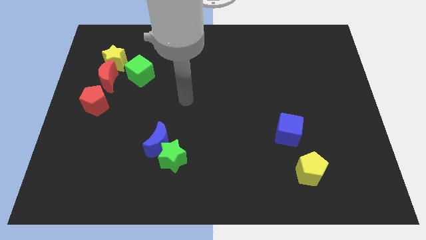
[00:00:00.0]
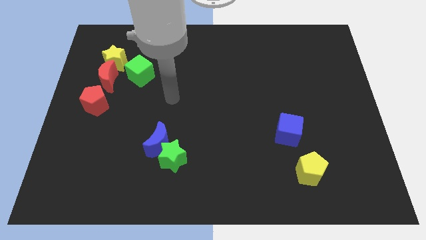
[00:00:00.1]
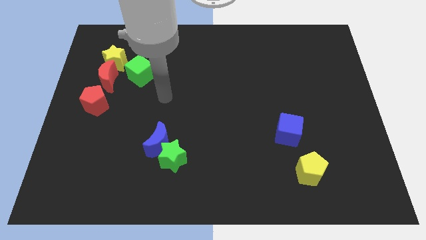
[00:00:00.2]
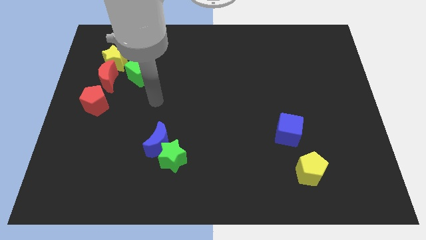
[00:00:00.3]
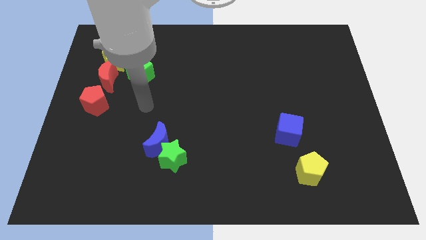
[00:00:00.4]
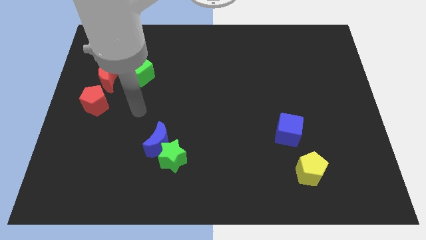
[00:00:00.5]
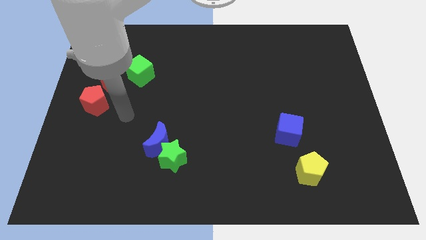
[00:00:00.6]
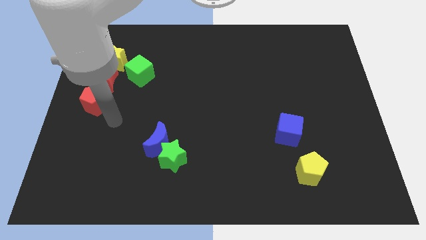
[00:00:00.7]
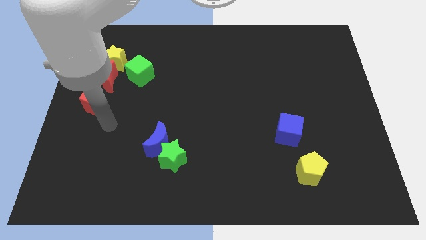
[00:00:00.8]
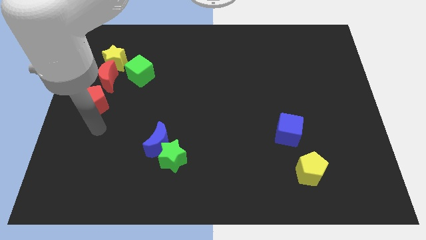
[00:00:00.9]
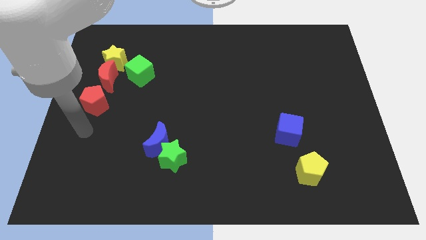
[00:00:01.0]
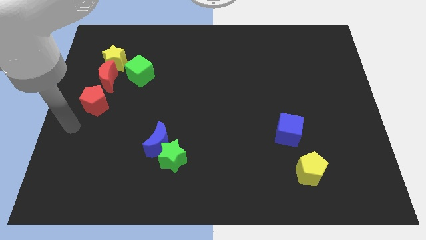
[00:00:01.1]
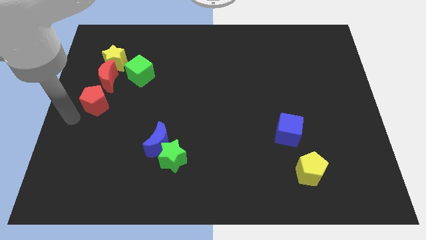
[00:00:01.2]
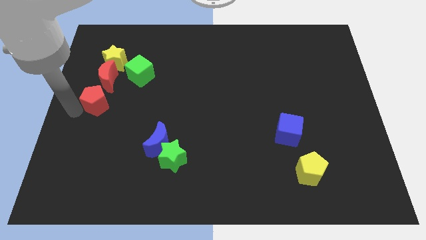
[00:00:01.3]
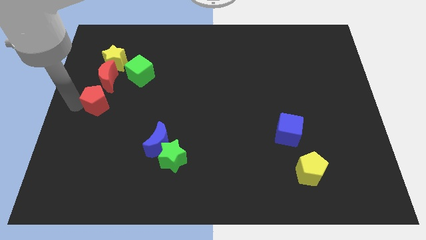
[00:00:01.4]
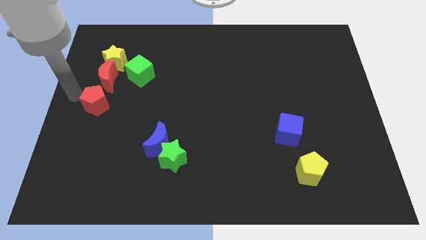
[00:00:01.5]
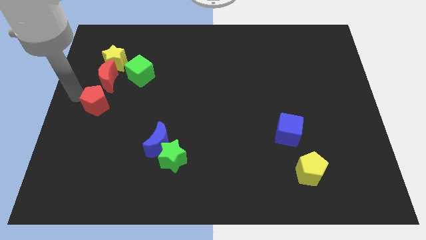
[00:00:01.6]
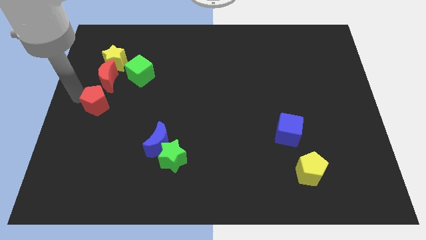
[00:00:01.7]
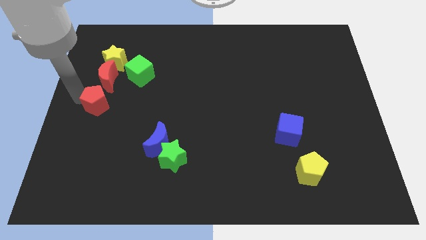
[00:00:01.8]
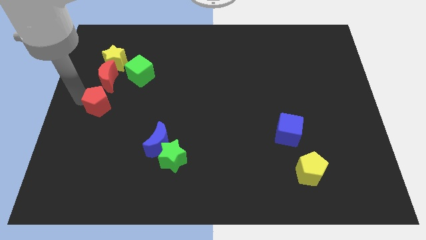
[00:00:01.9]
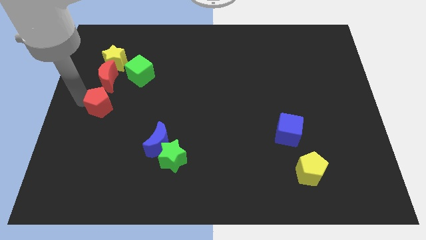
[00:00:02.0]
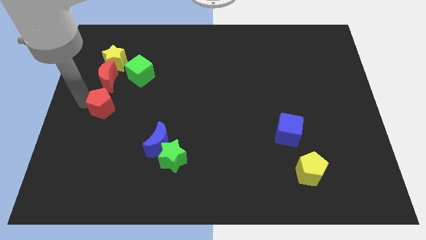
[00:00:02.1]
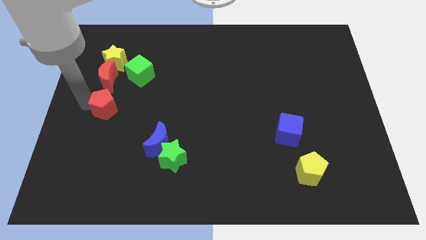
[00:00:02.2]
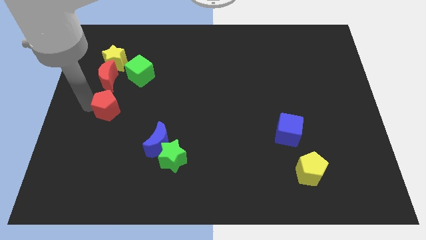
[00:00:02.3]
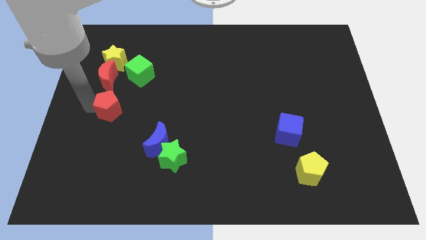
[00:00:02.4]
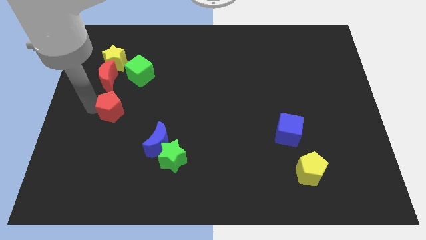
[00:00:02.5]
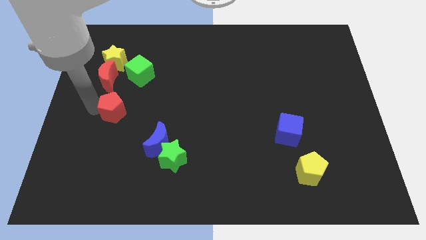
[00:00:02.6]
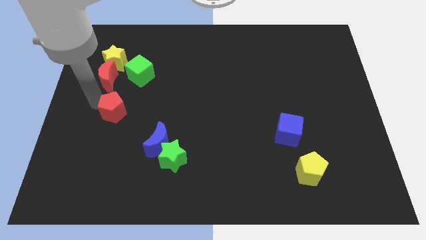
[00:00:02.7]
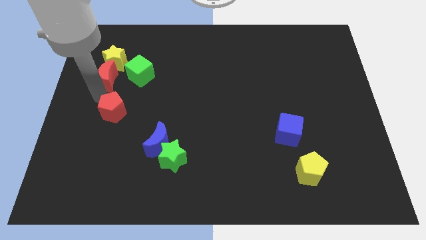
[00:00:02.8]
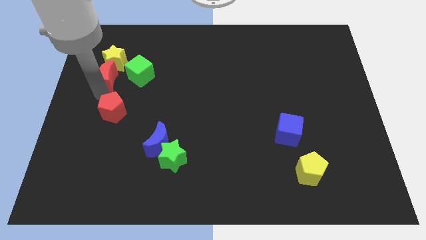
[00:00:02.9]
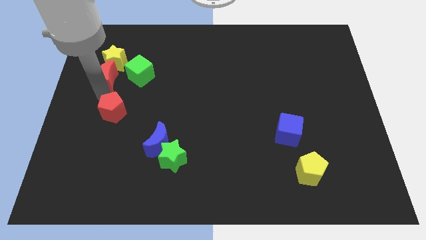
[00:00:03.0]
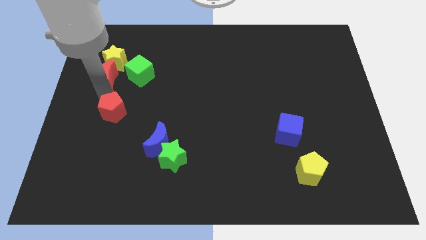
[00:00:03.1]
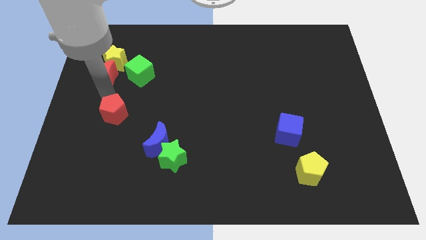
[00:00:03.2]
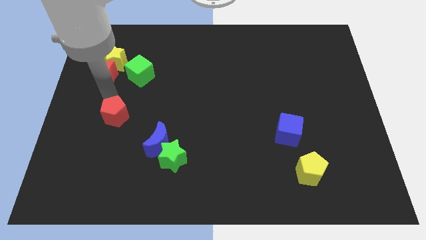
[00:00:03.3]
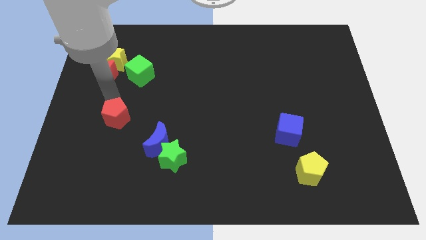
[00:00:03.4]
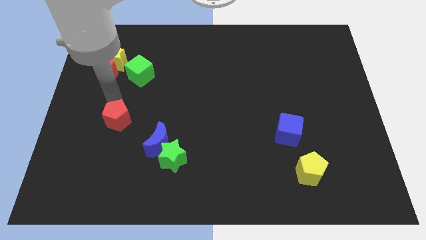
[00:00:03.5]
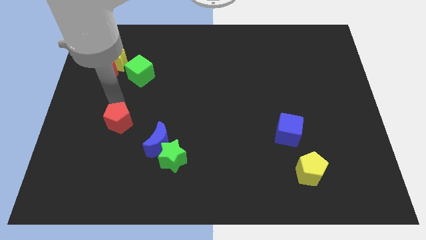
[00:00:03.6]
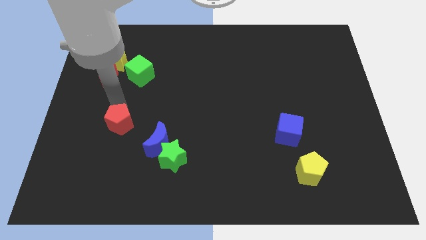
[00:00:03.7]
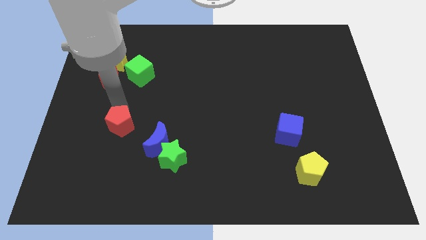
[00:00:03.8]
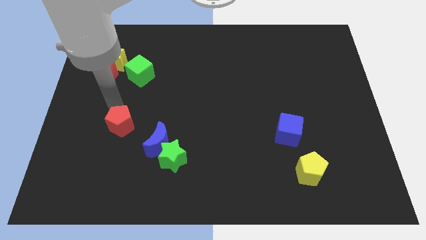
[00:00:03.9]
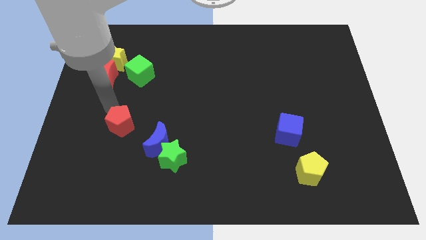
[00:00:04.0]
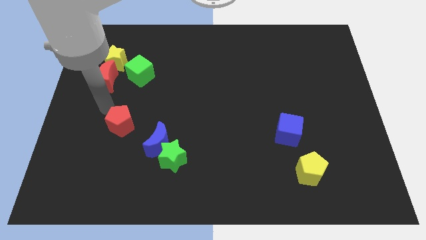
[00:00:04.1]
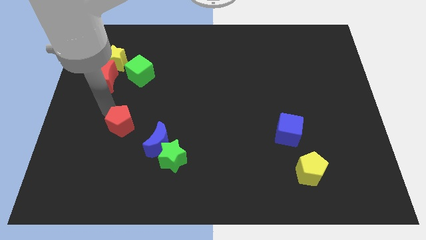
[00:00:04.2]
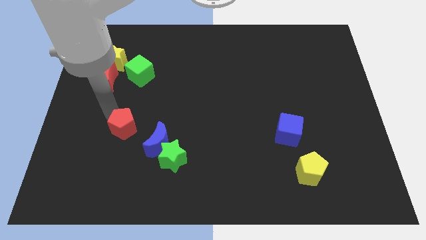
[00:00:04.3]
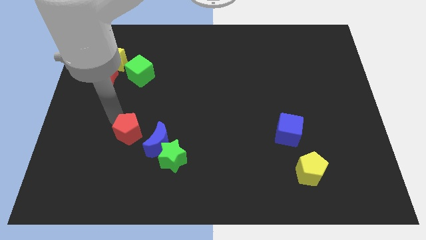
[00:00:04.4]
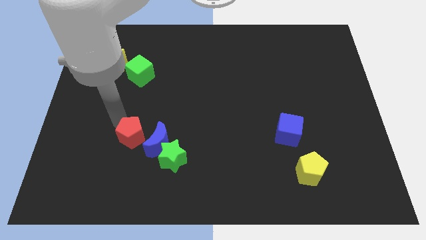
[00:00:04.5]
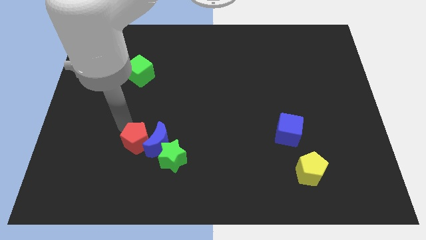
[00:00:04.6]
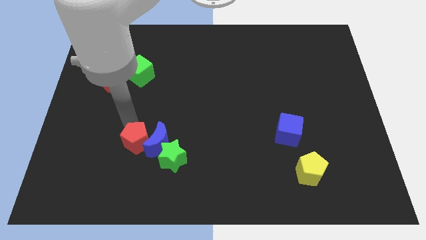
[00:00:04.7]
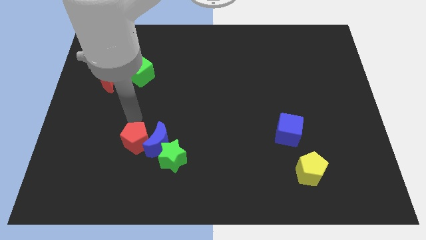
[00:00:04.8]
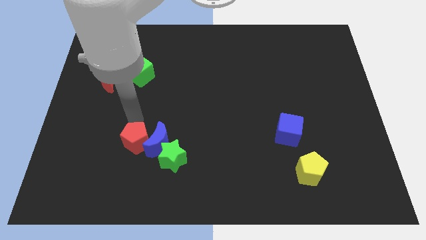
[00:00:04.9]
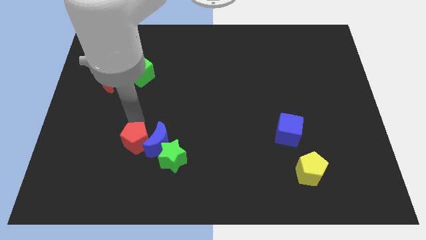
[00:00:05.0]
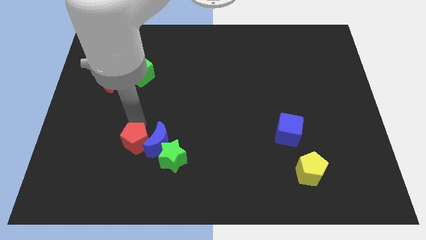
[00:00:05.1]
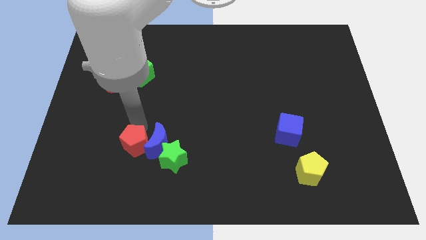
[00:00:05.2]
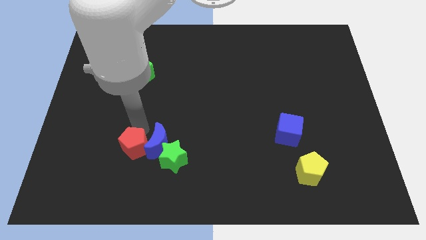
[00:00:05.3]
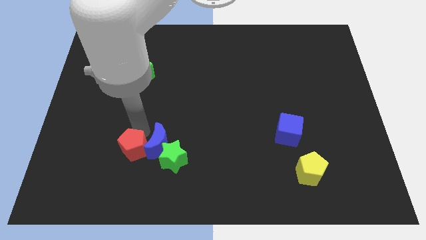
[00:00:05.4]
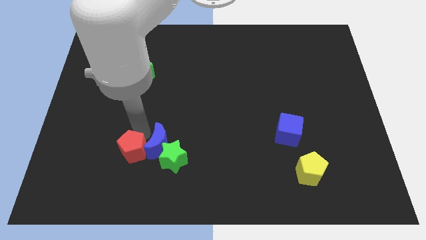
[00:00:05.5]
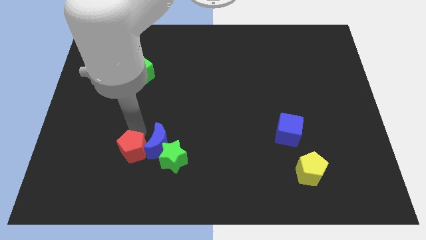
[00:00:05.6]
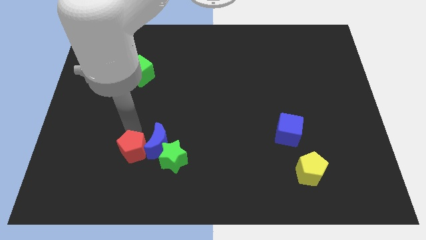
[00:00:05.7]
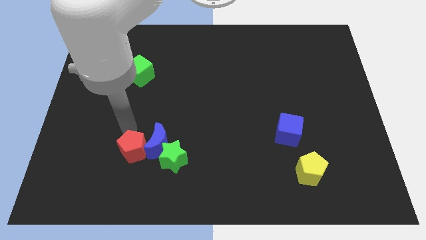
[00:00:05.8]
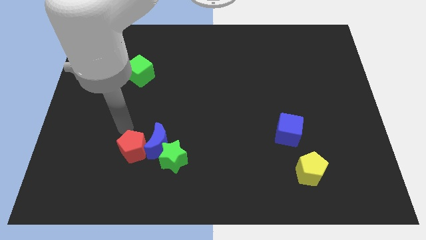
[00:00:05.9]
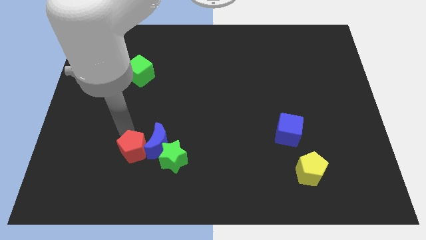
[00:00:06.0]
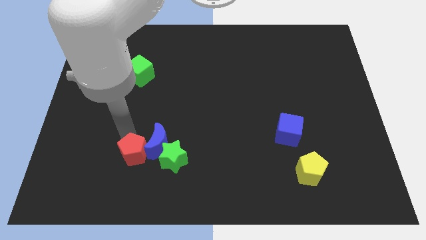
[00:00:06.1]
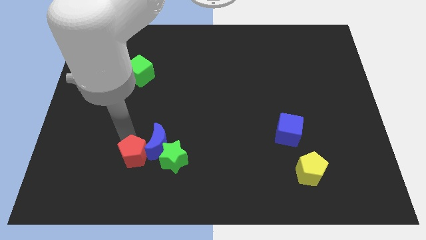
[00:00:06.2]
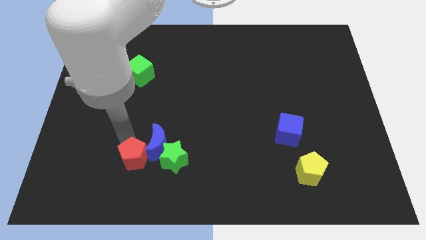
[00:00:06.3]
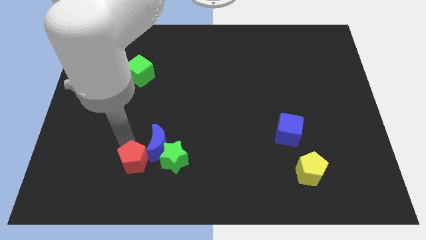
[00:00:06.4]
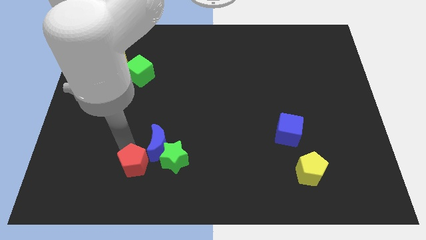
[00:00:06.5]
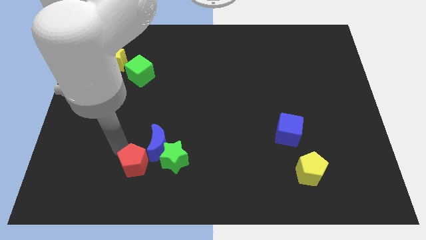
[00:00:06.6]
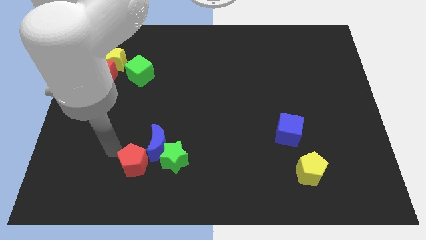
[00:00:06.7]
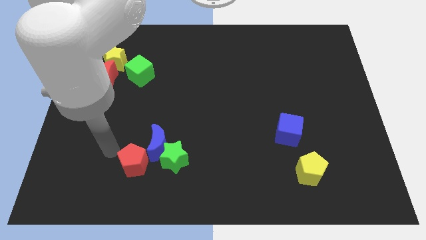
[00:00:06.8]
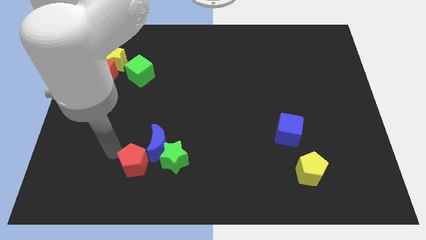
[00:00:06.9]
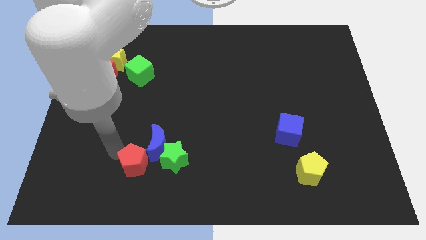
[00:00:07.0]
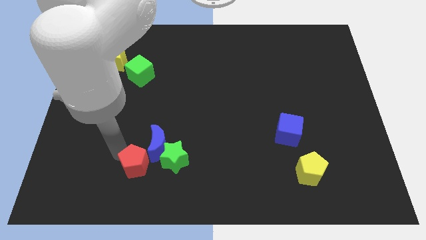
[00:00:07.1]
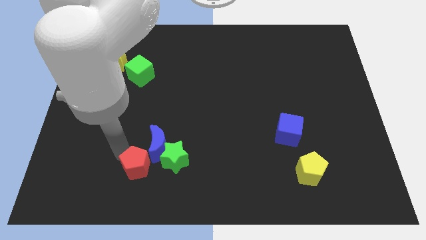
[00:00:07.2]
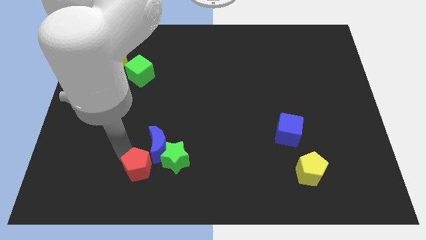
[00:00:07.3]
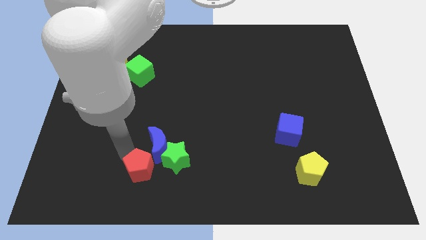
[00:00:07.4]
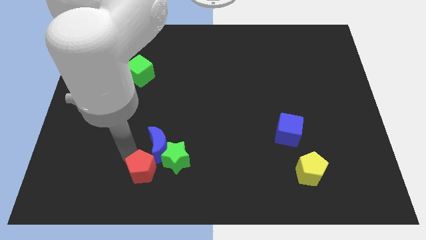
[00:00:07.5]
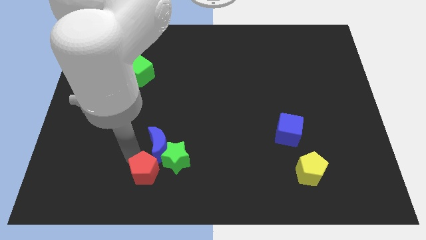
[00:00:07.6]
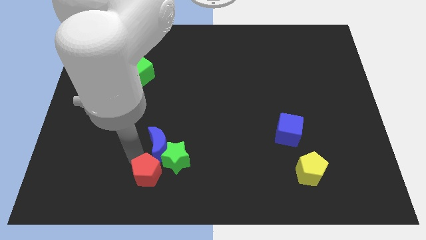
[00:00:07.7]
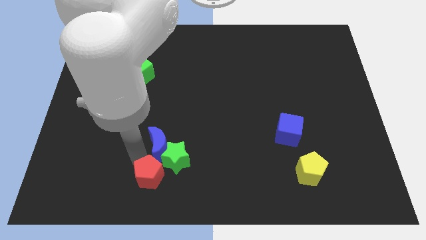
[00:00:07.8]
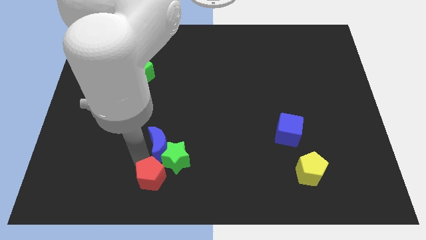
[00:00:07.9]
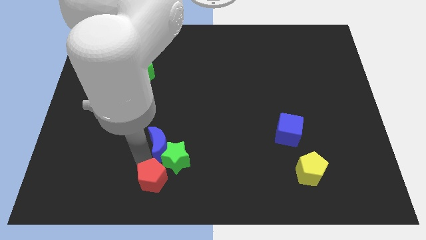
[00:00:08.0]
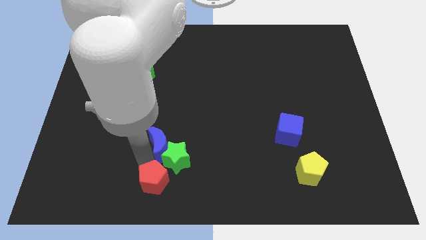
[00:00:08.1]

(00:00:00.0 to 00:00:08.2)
push the red pentagon to the bottom
